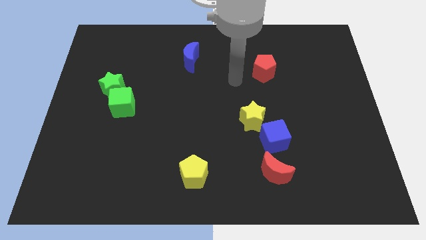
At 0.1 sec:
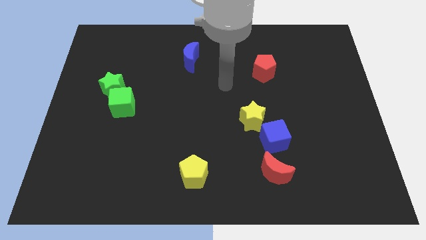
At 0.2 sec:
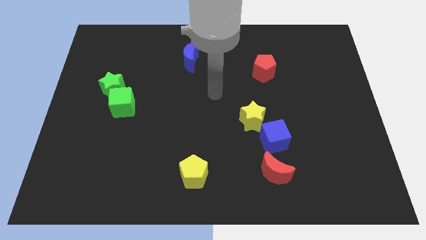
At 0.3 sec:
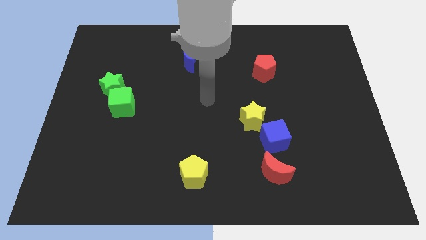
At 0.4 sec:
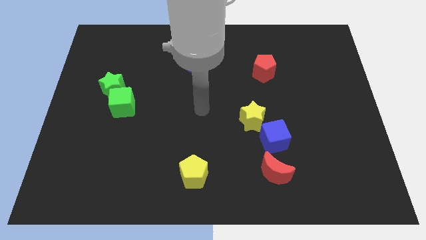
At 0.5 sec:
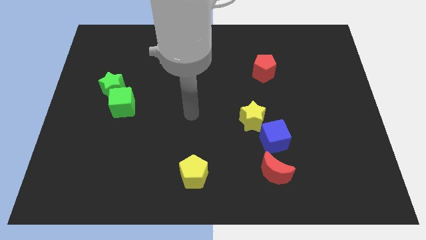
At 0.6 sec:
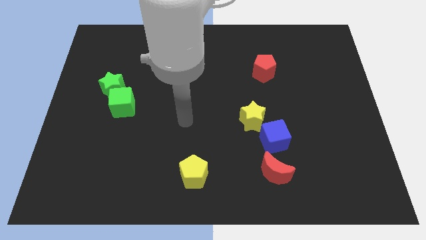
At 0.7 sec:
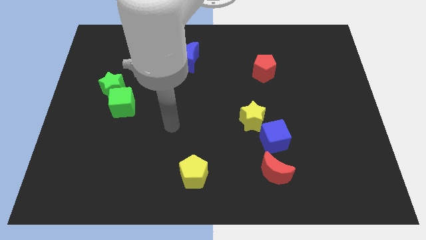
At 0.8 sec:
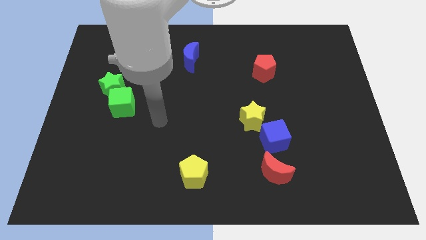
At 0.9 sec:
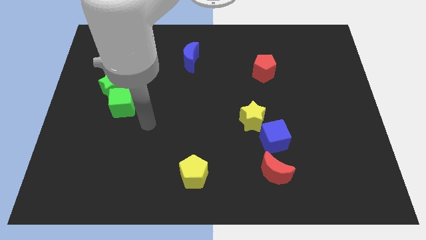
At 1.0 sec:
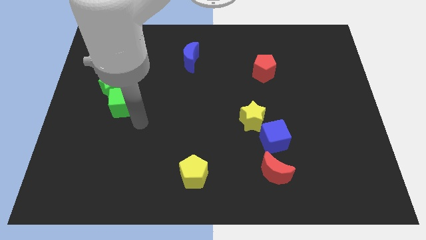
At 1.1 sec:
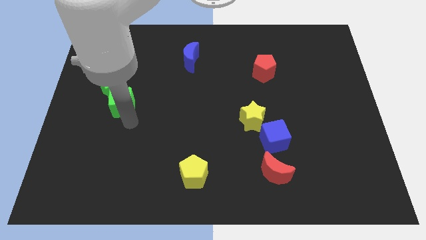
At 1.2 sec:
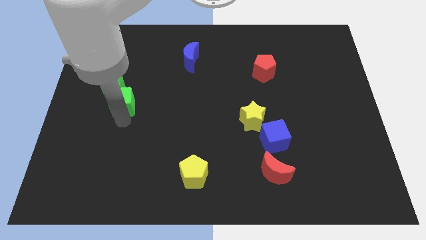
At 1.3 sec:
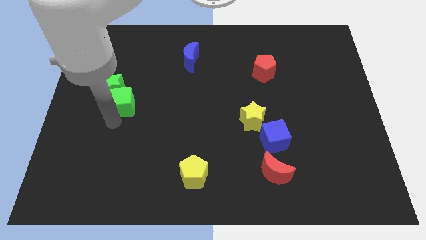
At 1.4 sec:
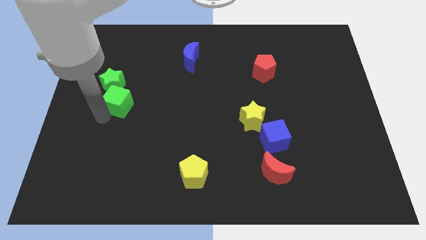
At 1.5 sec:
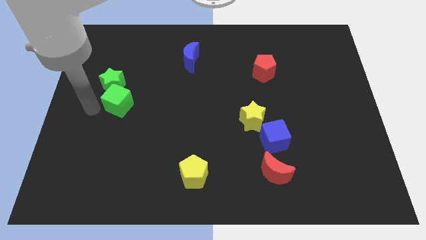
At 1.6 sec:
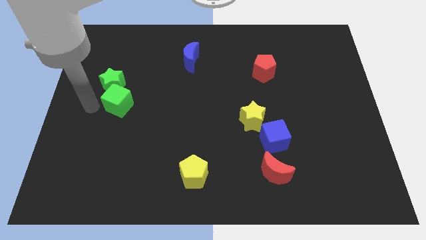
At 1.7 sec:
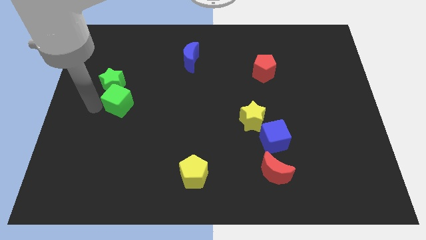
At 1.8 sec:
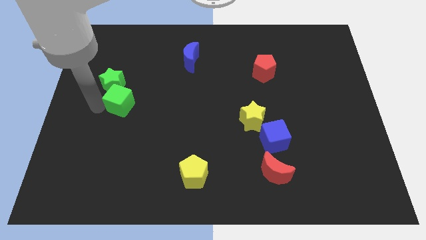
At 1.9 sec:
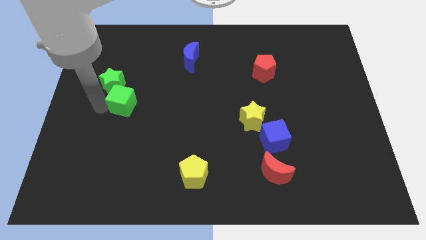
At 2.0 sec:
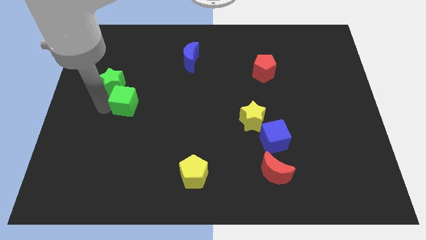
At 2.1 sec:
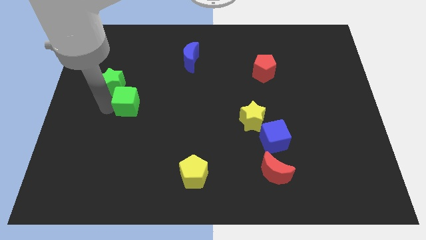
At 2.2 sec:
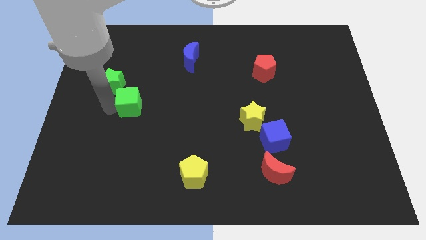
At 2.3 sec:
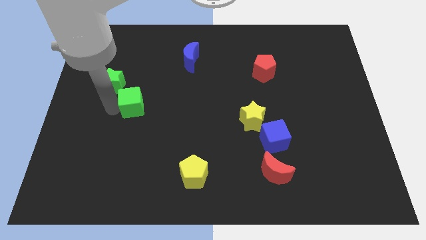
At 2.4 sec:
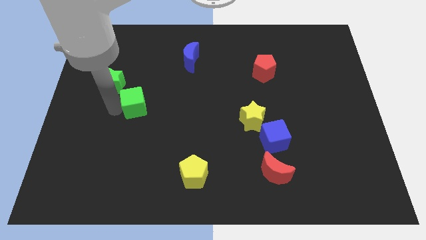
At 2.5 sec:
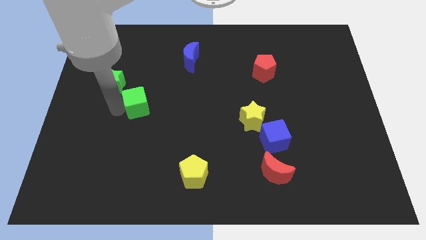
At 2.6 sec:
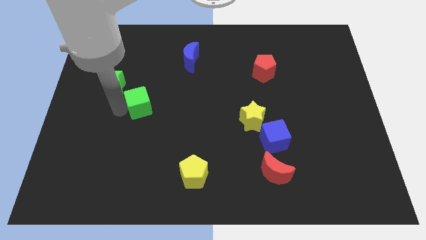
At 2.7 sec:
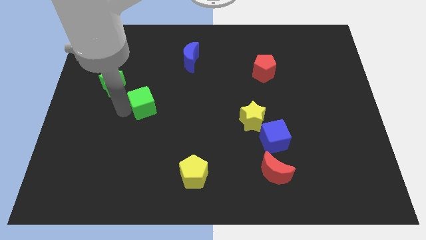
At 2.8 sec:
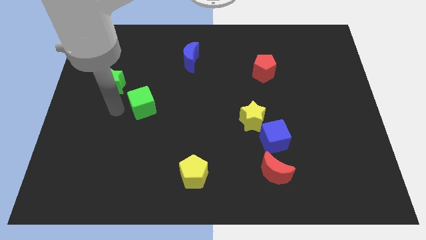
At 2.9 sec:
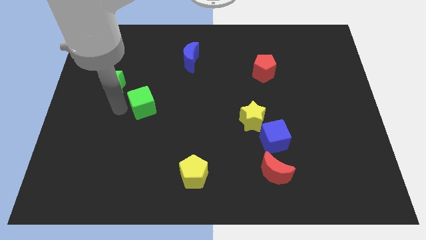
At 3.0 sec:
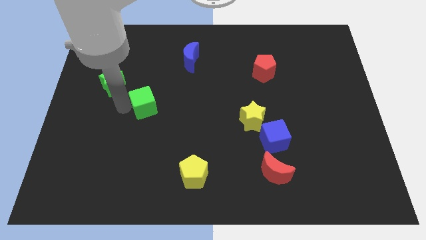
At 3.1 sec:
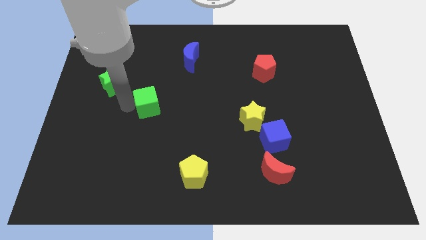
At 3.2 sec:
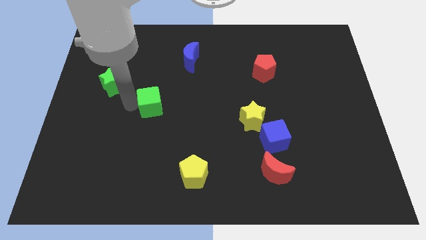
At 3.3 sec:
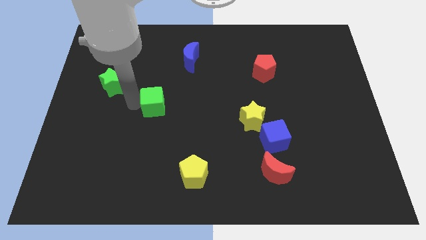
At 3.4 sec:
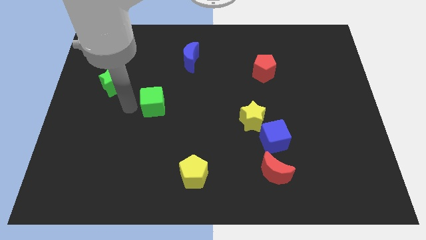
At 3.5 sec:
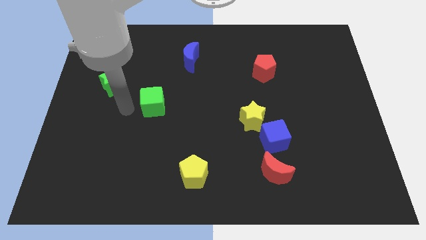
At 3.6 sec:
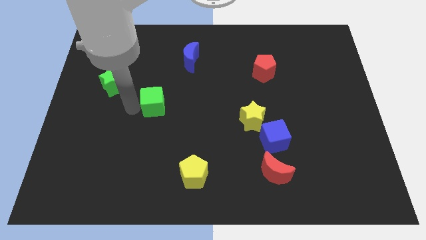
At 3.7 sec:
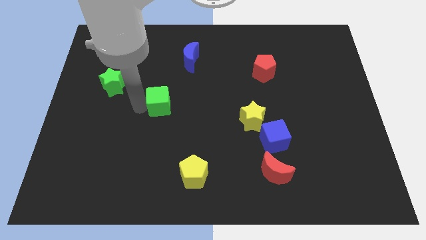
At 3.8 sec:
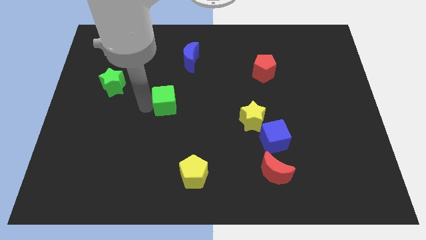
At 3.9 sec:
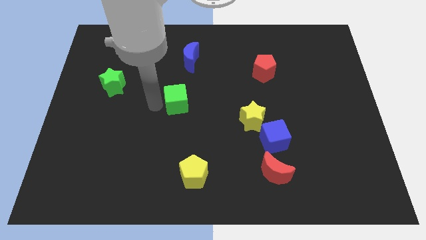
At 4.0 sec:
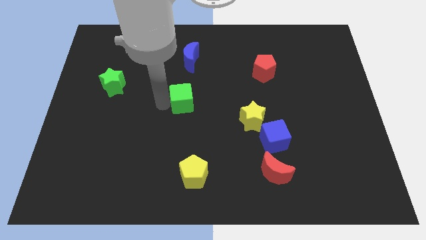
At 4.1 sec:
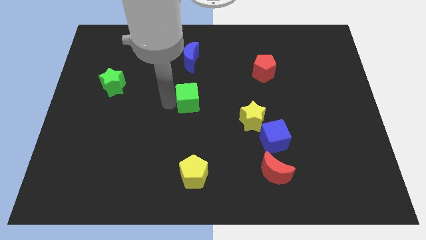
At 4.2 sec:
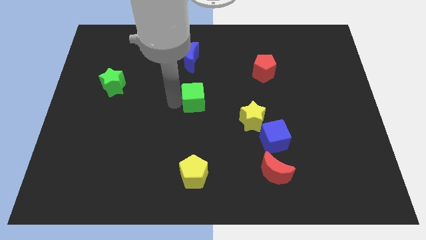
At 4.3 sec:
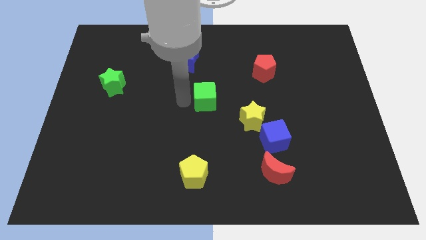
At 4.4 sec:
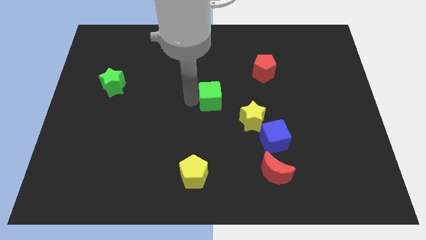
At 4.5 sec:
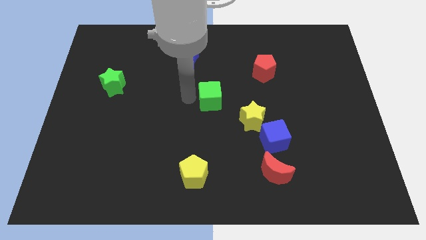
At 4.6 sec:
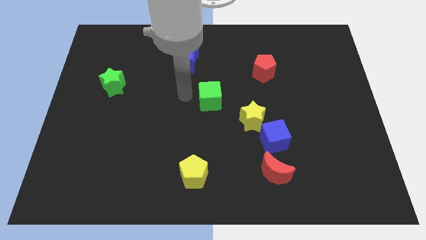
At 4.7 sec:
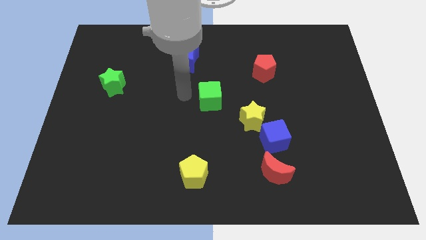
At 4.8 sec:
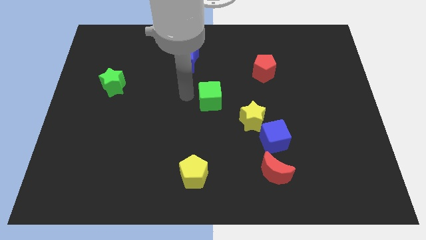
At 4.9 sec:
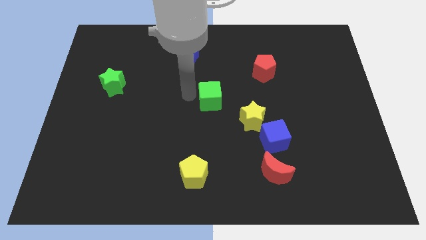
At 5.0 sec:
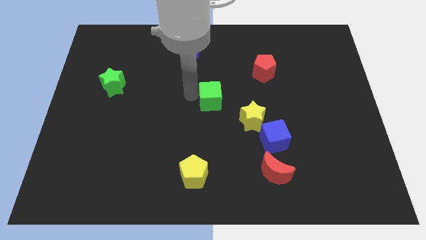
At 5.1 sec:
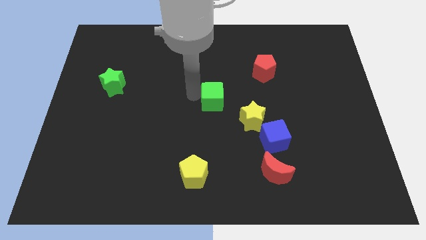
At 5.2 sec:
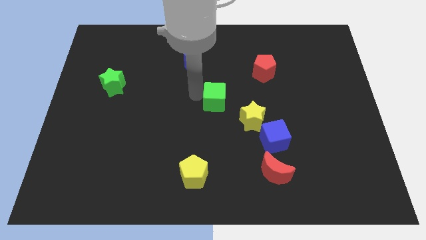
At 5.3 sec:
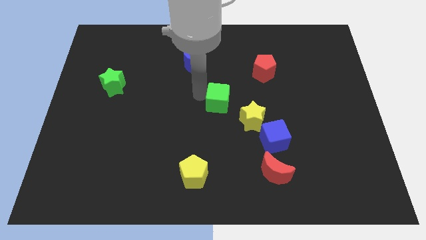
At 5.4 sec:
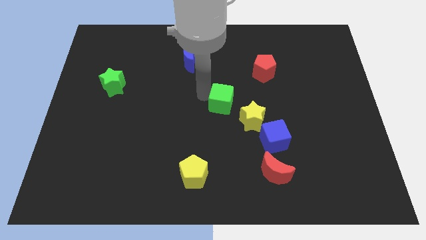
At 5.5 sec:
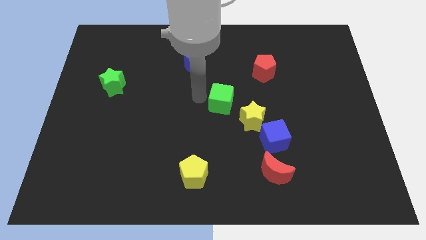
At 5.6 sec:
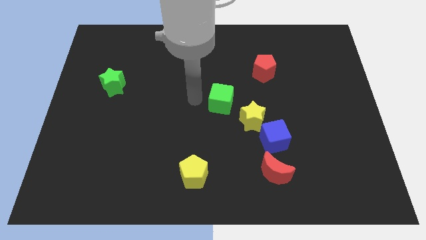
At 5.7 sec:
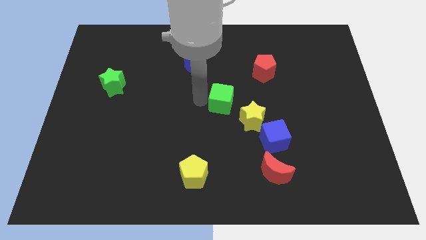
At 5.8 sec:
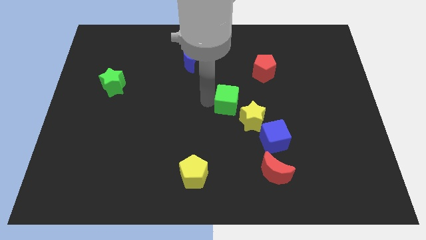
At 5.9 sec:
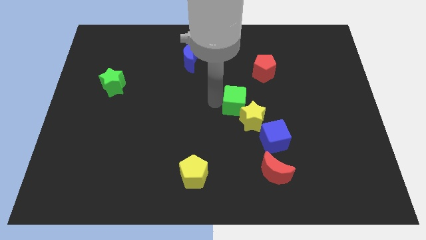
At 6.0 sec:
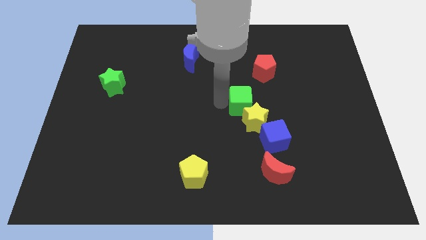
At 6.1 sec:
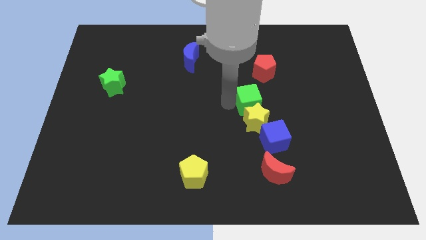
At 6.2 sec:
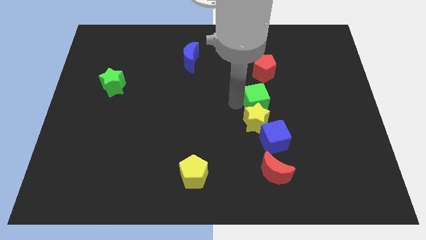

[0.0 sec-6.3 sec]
put the green cube to the top of the blue cube

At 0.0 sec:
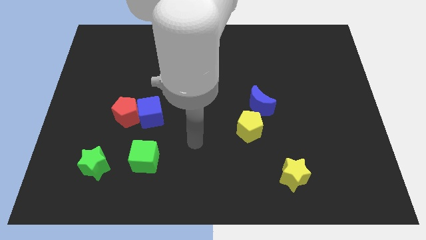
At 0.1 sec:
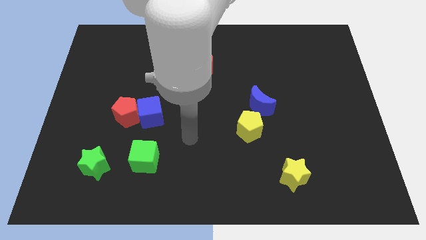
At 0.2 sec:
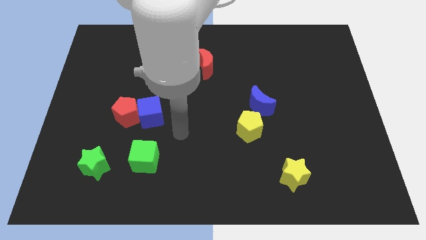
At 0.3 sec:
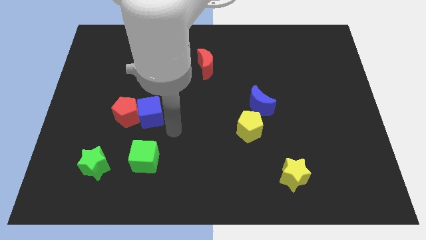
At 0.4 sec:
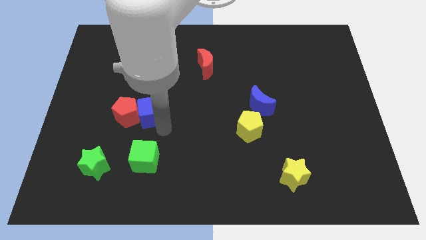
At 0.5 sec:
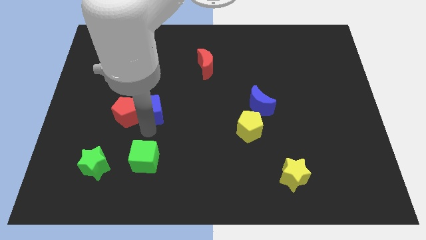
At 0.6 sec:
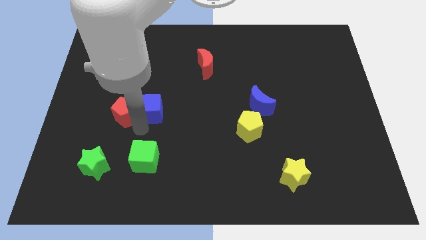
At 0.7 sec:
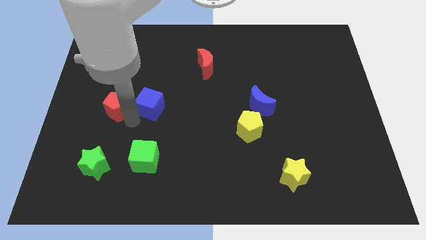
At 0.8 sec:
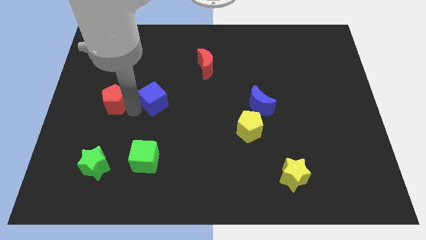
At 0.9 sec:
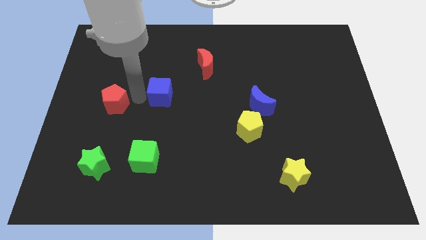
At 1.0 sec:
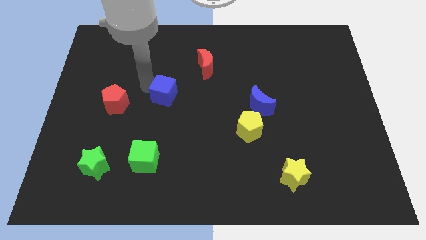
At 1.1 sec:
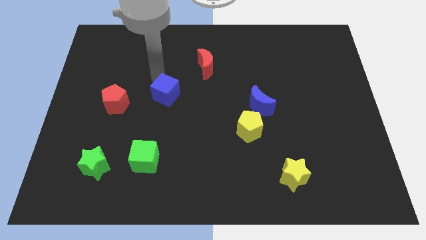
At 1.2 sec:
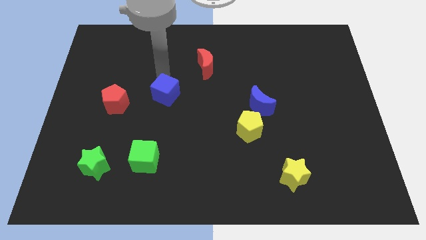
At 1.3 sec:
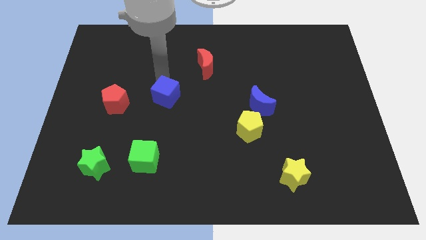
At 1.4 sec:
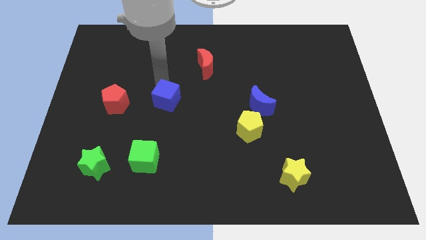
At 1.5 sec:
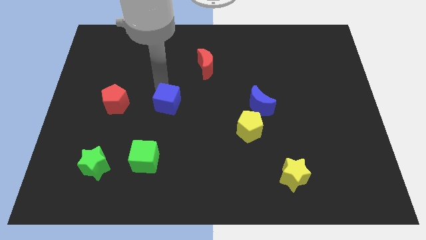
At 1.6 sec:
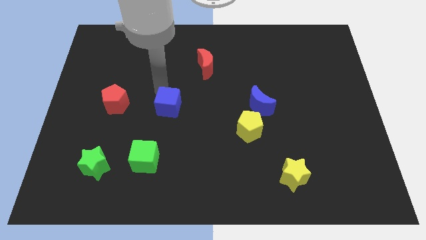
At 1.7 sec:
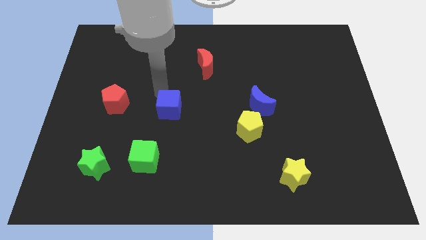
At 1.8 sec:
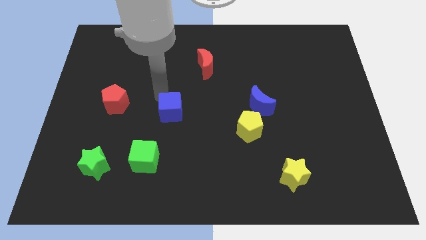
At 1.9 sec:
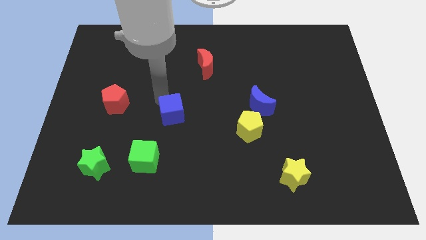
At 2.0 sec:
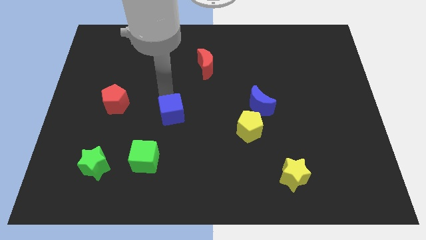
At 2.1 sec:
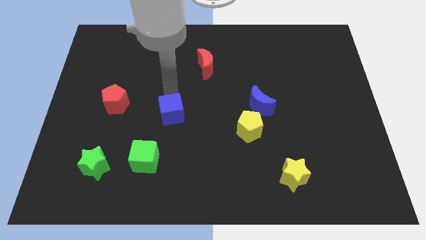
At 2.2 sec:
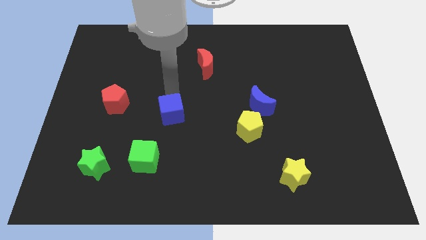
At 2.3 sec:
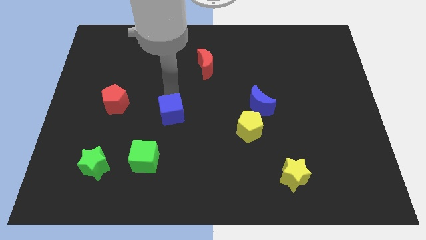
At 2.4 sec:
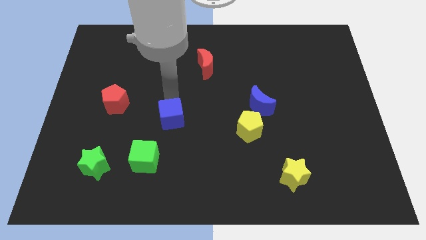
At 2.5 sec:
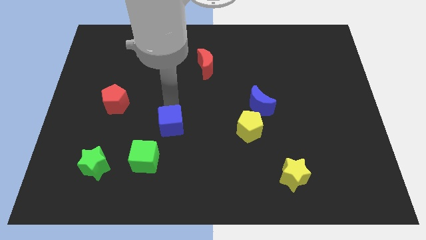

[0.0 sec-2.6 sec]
put the blue cube diagonally up and to the right of the green cube
